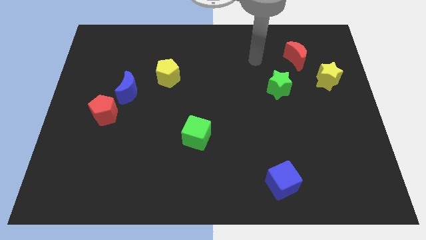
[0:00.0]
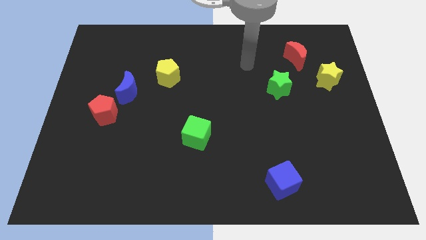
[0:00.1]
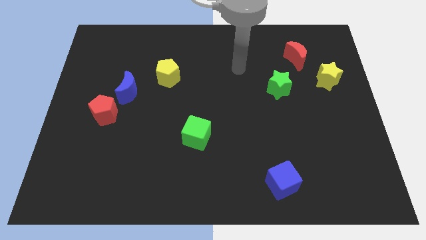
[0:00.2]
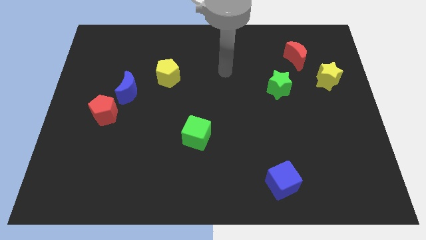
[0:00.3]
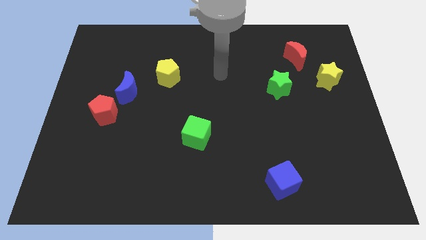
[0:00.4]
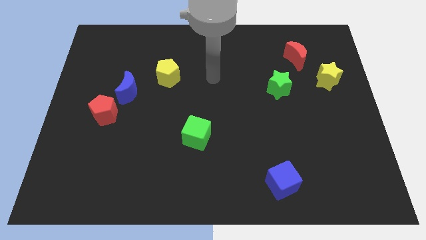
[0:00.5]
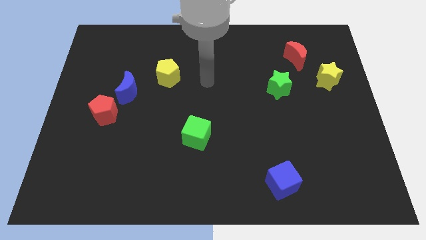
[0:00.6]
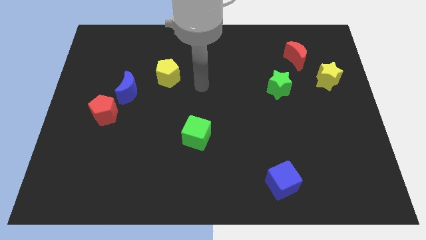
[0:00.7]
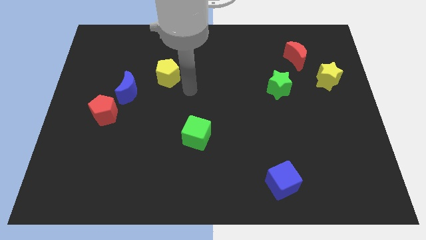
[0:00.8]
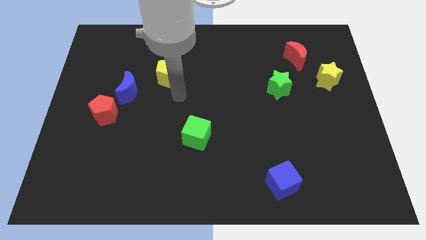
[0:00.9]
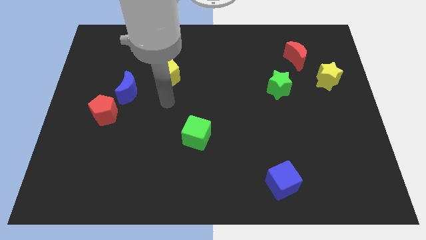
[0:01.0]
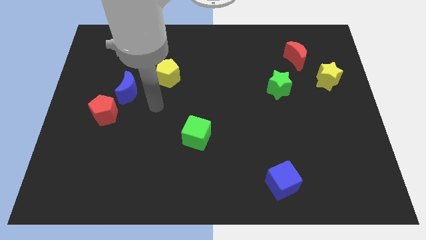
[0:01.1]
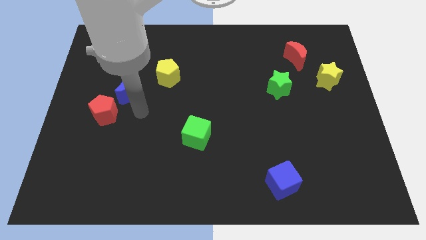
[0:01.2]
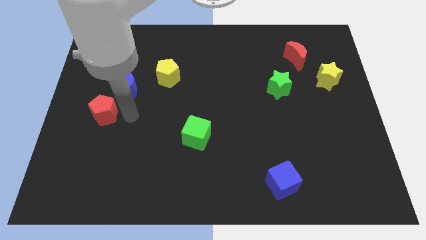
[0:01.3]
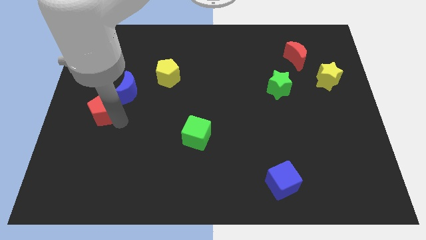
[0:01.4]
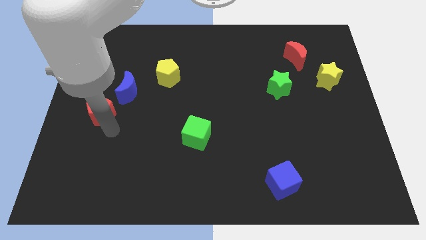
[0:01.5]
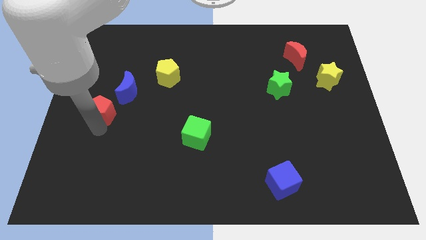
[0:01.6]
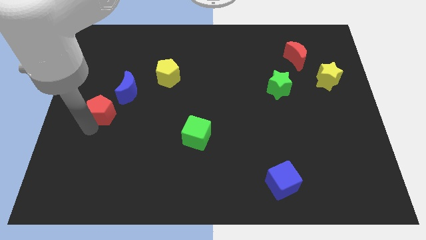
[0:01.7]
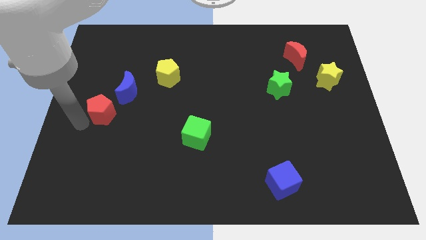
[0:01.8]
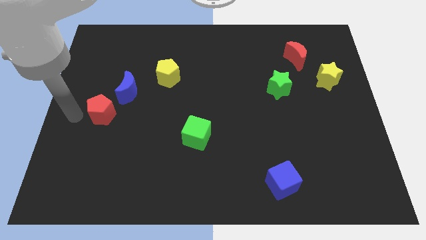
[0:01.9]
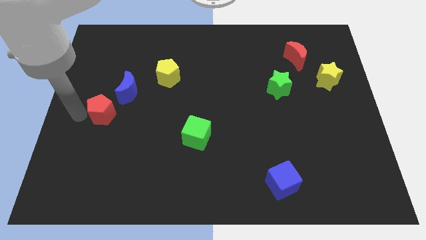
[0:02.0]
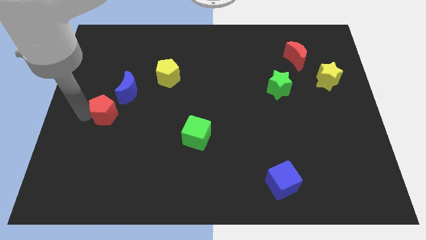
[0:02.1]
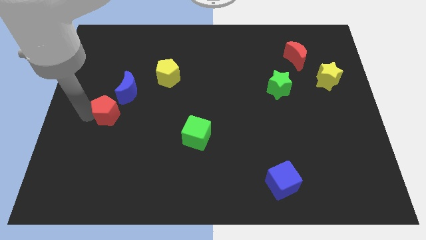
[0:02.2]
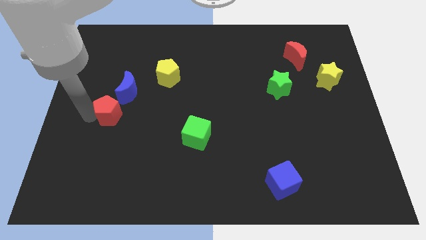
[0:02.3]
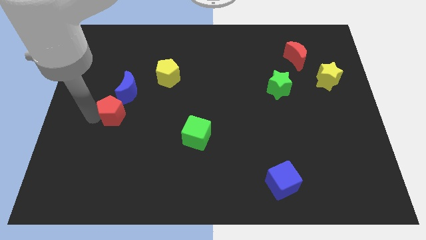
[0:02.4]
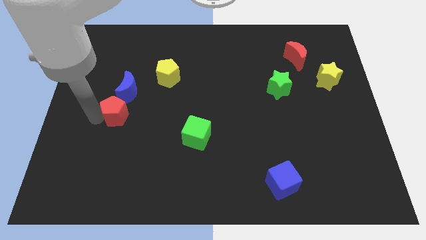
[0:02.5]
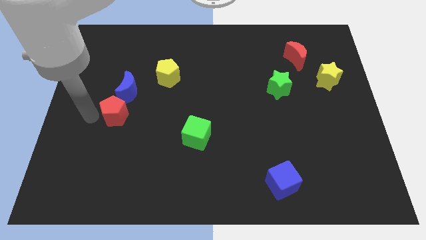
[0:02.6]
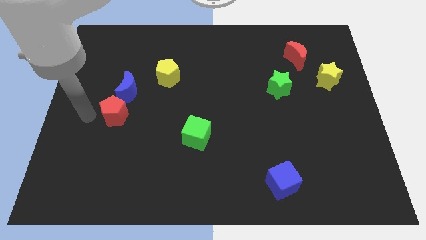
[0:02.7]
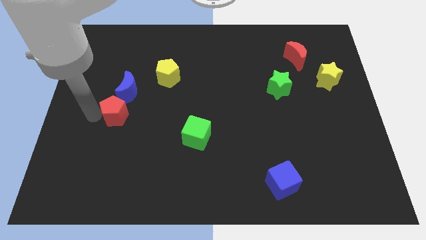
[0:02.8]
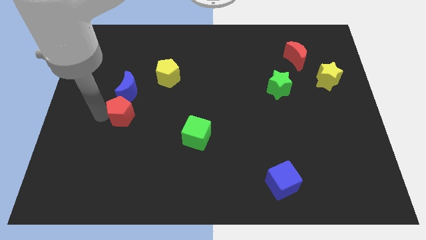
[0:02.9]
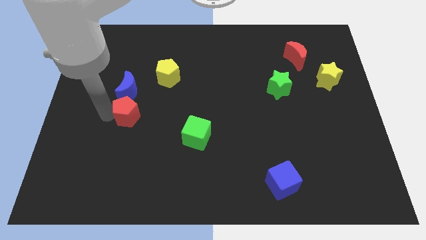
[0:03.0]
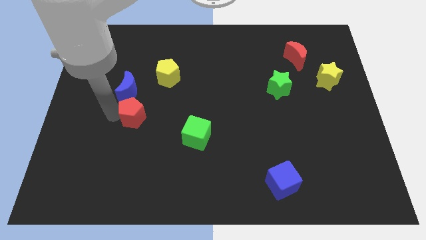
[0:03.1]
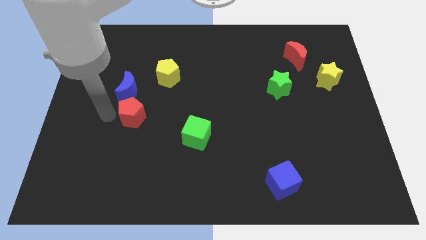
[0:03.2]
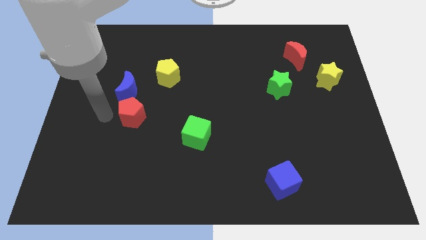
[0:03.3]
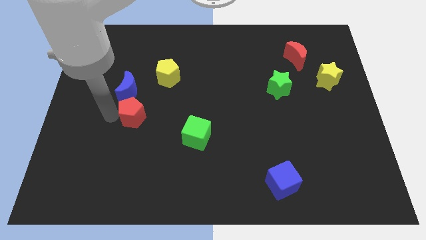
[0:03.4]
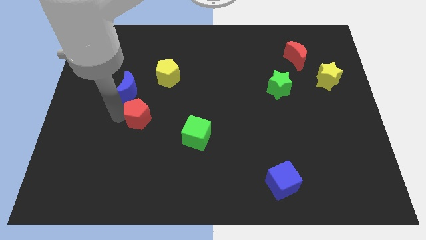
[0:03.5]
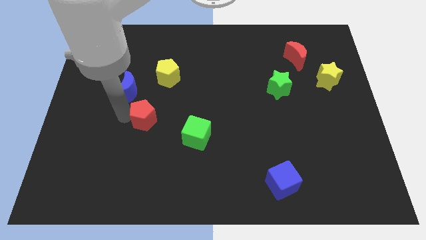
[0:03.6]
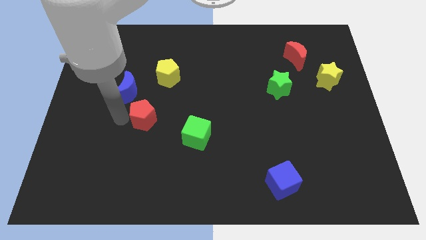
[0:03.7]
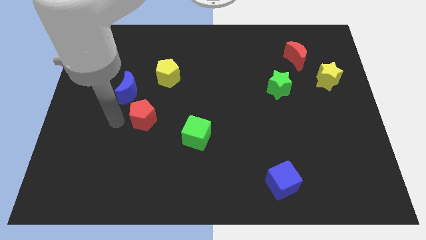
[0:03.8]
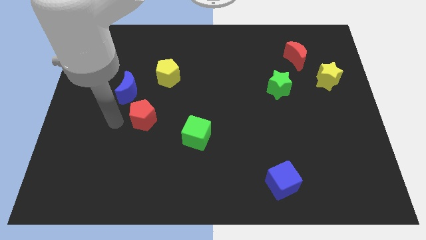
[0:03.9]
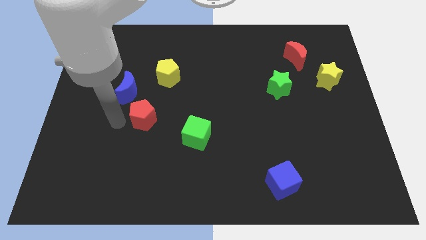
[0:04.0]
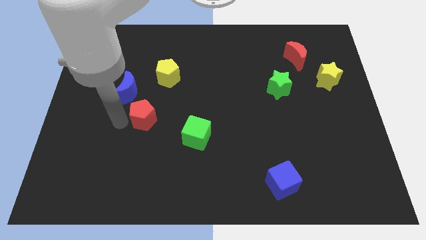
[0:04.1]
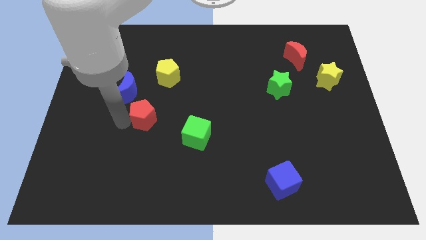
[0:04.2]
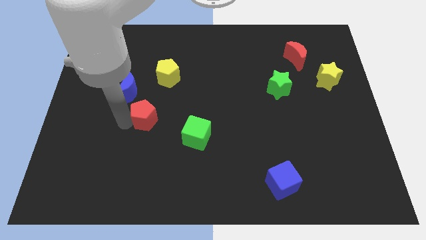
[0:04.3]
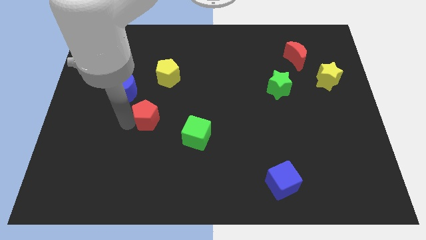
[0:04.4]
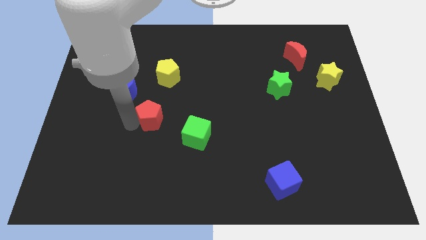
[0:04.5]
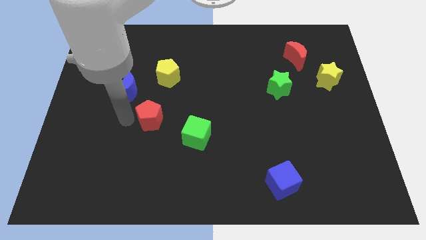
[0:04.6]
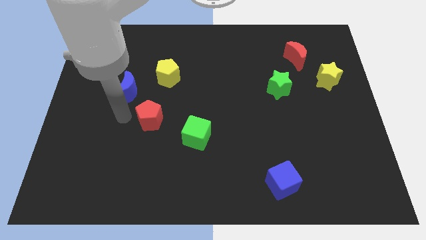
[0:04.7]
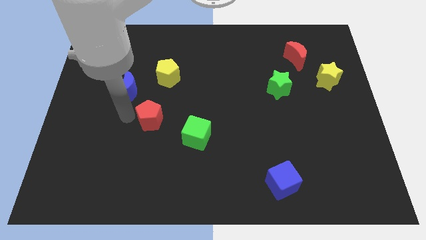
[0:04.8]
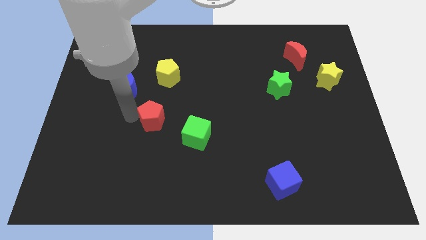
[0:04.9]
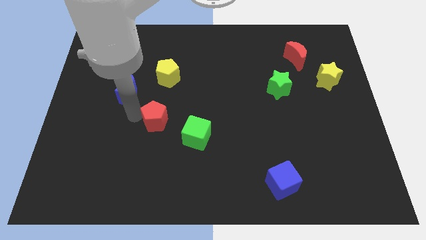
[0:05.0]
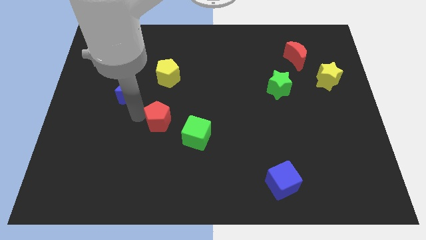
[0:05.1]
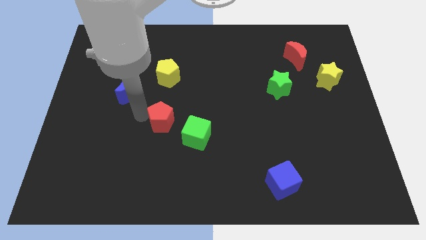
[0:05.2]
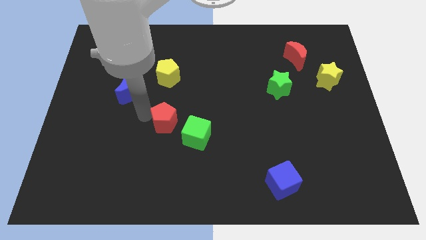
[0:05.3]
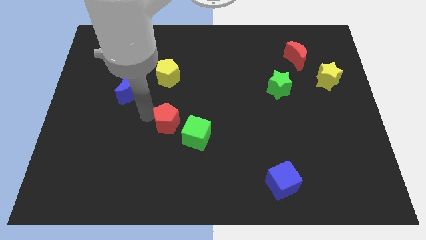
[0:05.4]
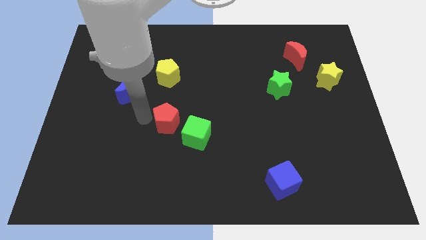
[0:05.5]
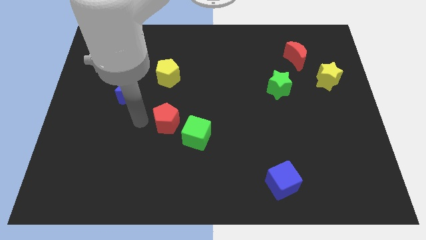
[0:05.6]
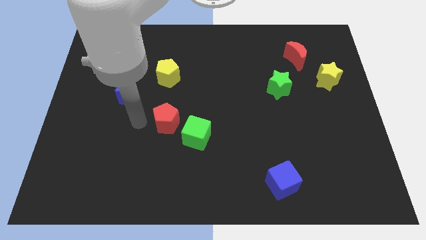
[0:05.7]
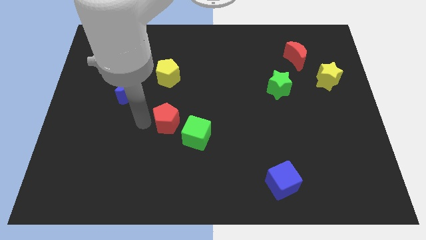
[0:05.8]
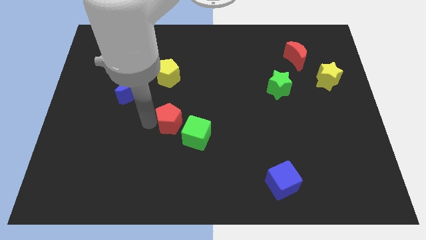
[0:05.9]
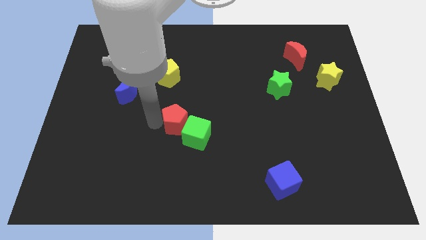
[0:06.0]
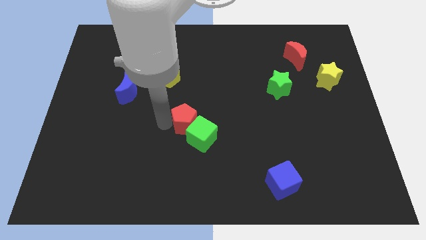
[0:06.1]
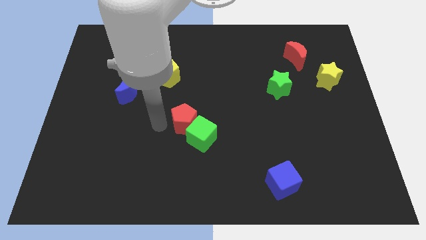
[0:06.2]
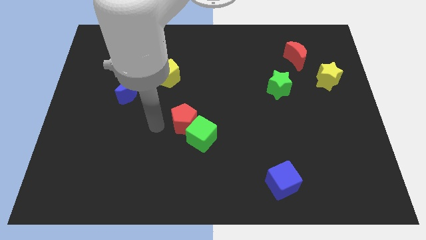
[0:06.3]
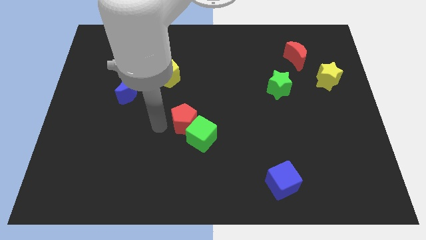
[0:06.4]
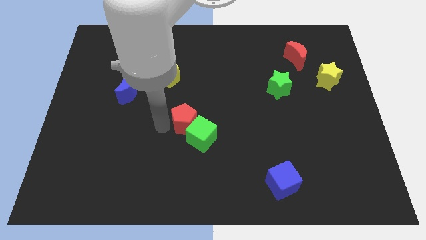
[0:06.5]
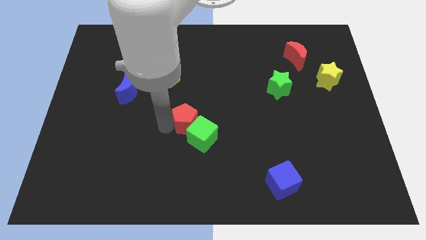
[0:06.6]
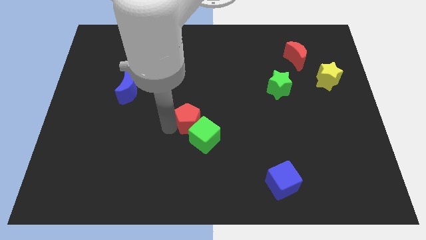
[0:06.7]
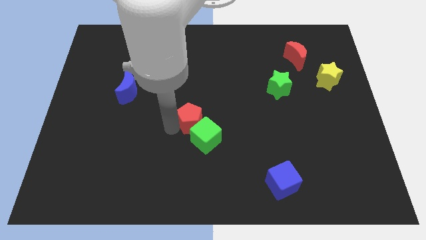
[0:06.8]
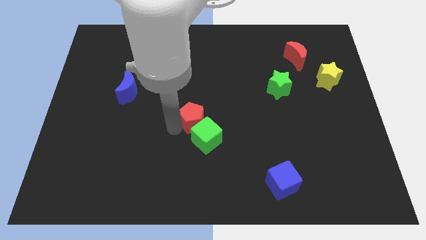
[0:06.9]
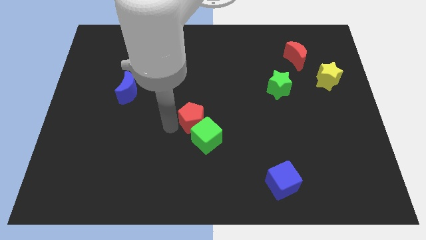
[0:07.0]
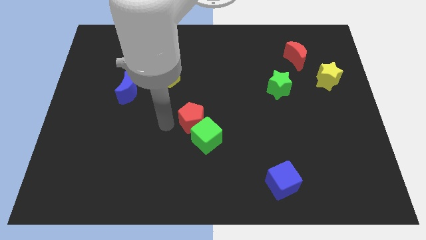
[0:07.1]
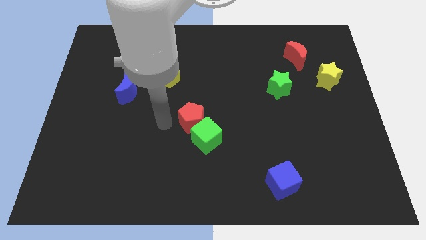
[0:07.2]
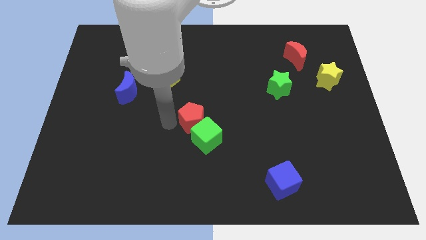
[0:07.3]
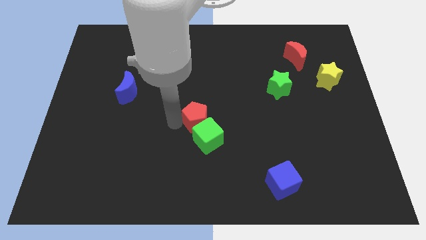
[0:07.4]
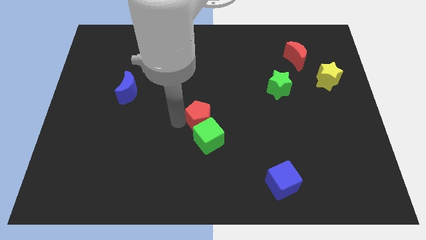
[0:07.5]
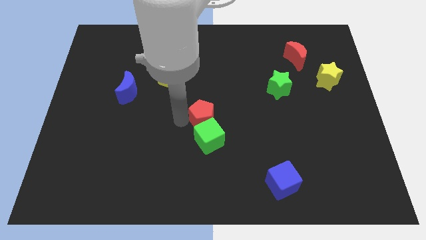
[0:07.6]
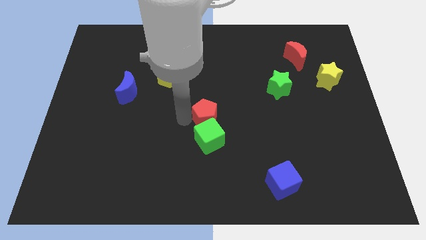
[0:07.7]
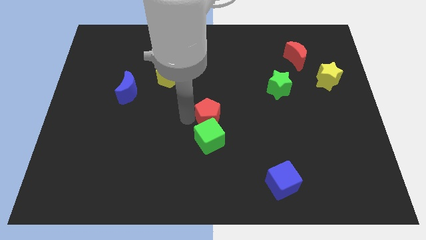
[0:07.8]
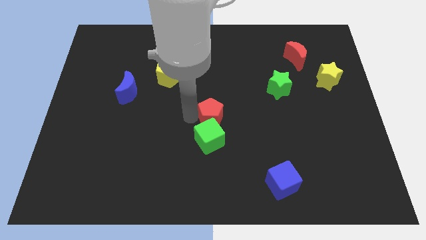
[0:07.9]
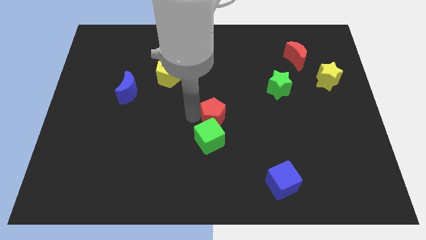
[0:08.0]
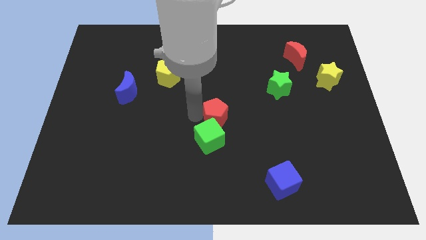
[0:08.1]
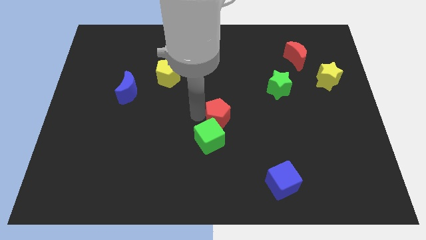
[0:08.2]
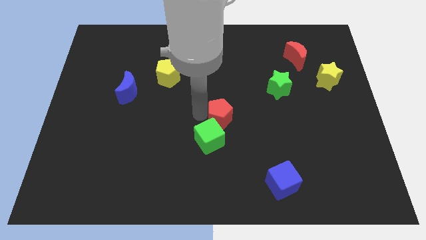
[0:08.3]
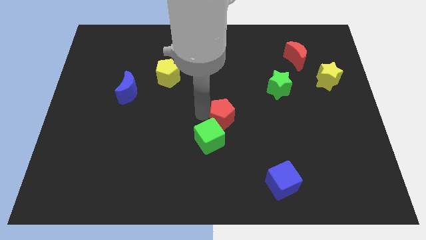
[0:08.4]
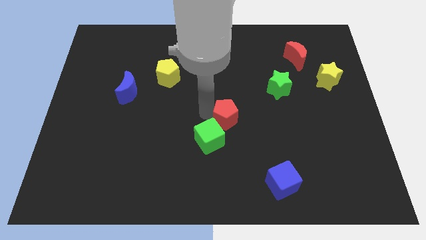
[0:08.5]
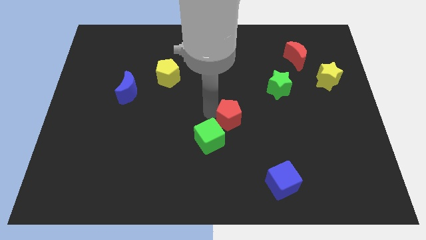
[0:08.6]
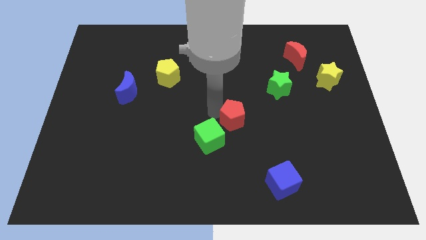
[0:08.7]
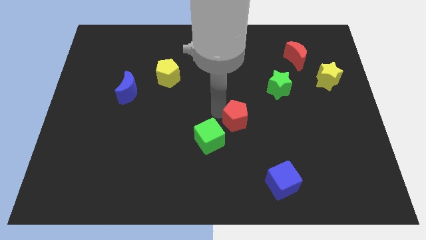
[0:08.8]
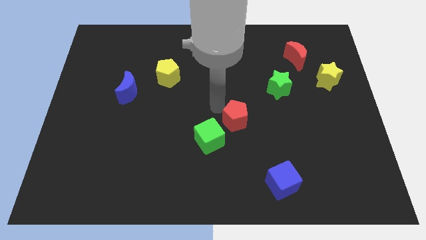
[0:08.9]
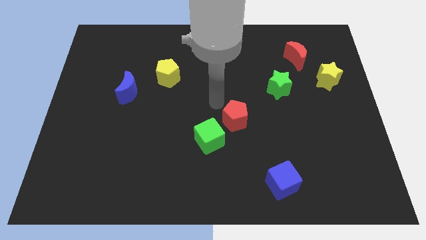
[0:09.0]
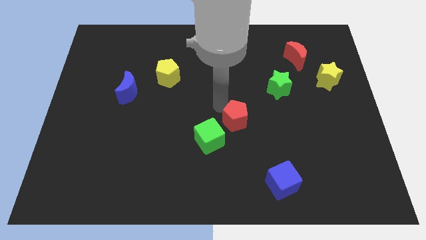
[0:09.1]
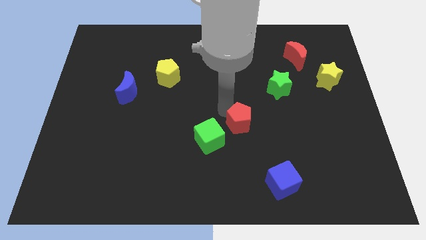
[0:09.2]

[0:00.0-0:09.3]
slide the red pentagon just right of the green cube
